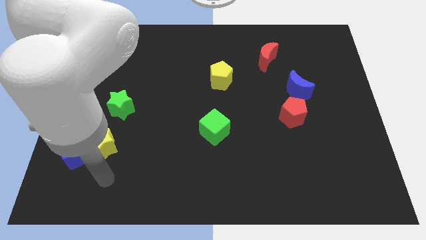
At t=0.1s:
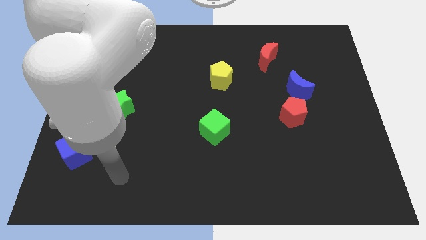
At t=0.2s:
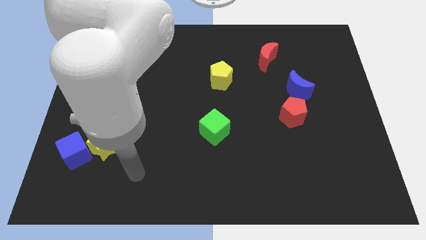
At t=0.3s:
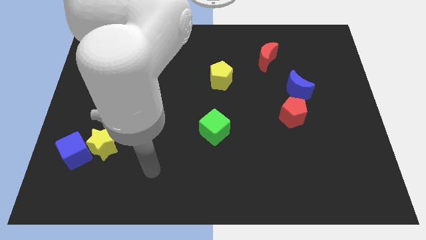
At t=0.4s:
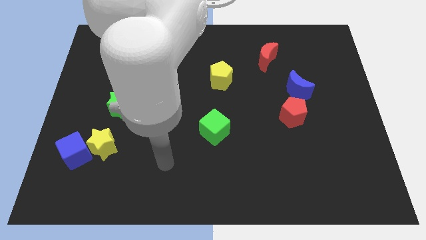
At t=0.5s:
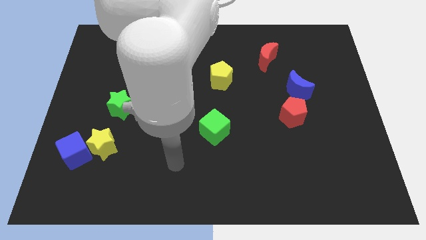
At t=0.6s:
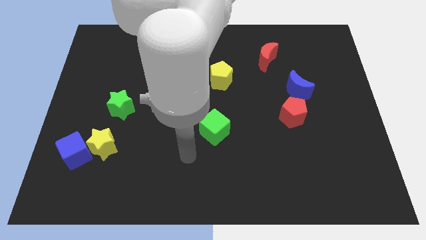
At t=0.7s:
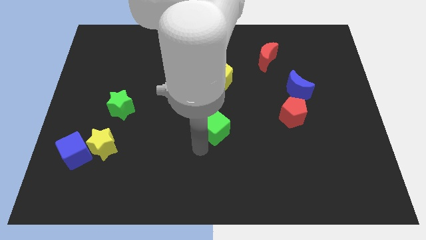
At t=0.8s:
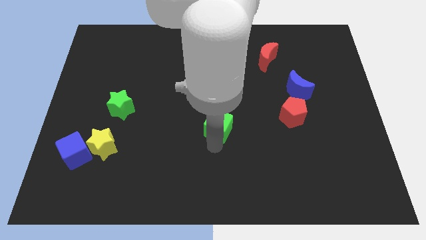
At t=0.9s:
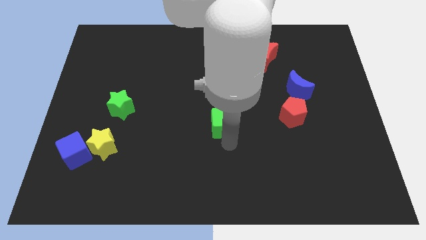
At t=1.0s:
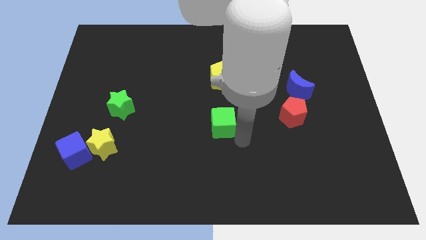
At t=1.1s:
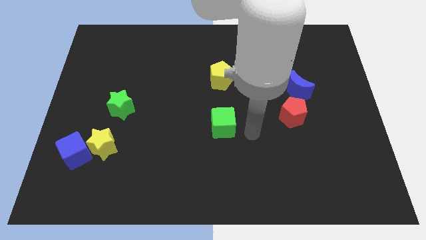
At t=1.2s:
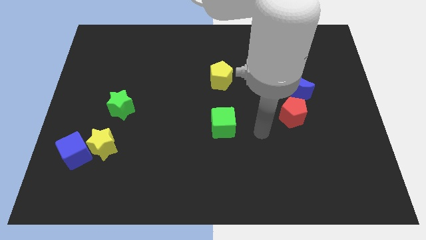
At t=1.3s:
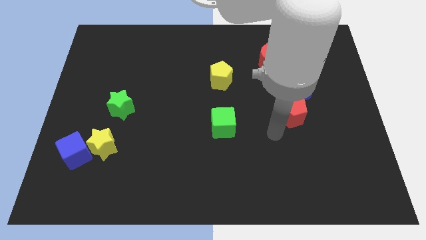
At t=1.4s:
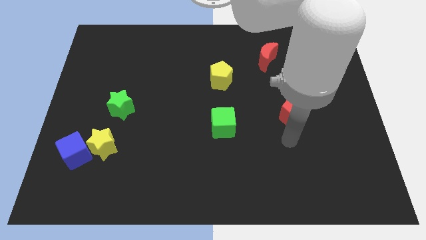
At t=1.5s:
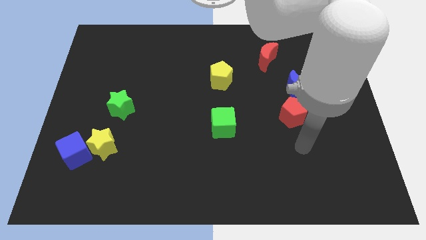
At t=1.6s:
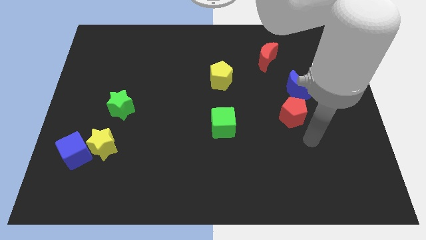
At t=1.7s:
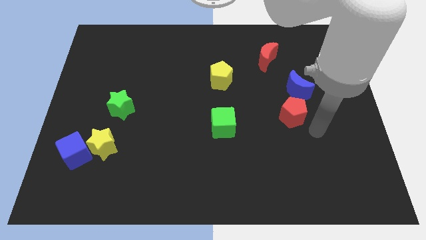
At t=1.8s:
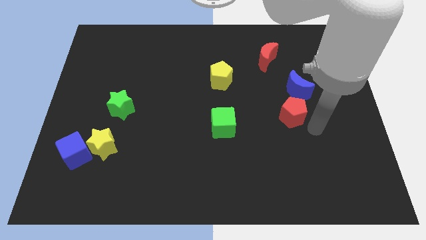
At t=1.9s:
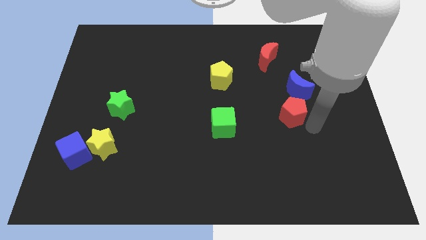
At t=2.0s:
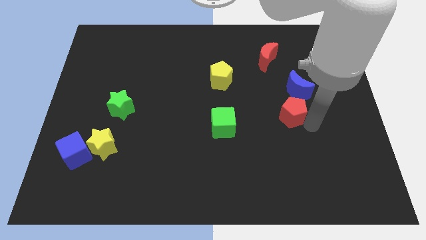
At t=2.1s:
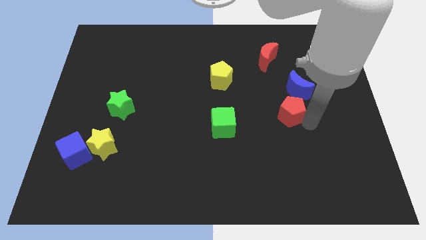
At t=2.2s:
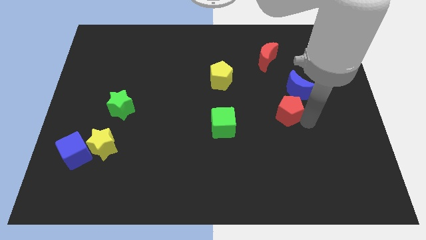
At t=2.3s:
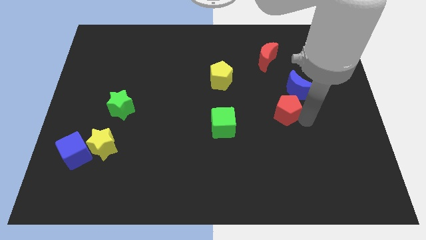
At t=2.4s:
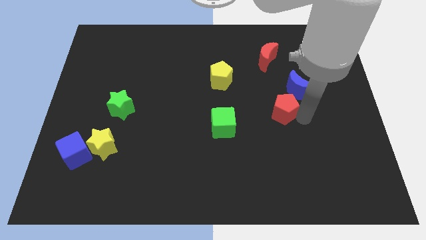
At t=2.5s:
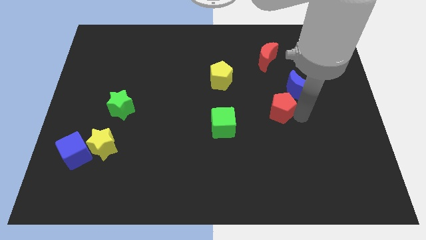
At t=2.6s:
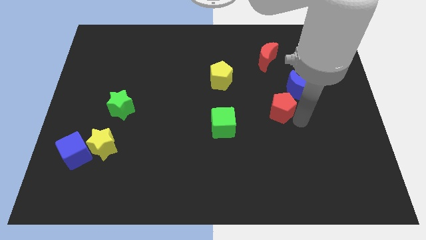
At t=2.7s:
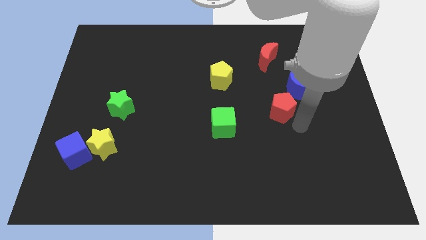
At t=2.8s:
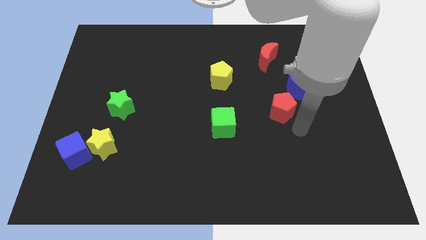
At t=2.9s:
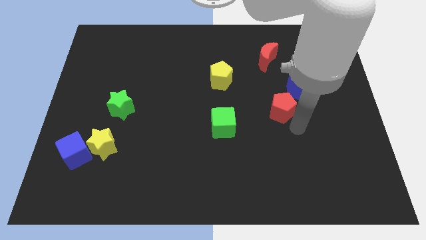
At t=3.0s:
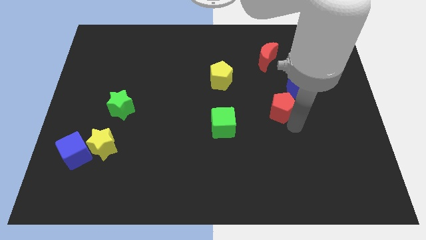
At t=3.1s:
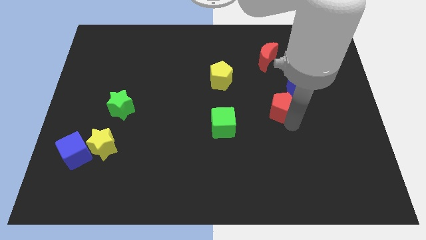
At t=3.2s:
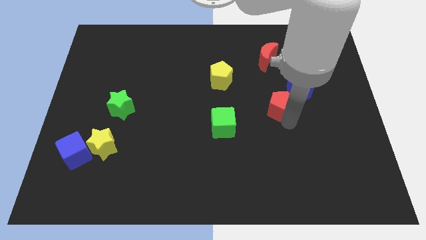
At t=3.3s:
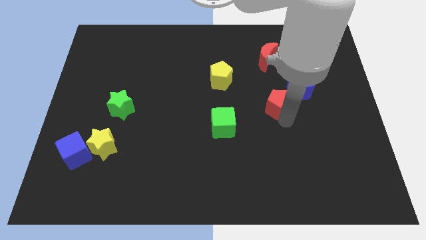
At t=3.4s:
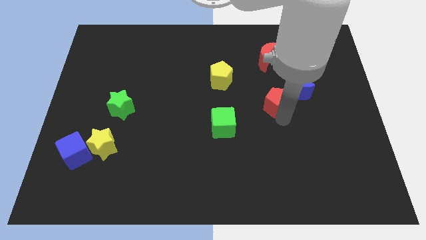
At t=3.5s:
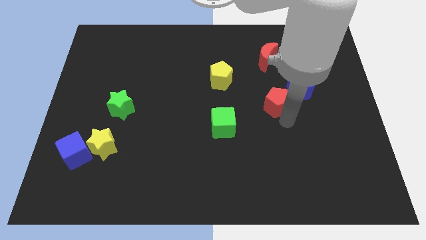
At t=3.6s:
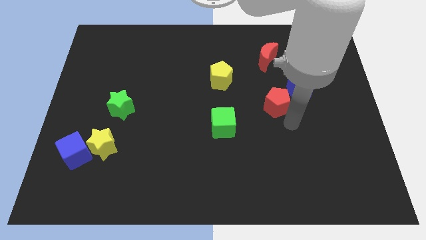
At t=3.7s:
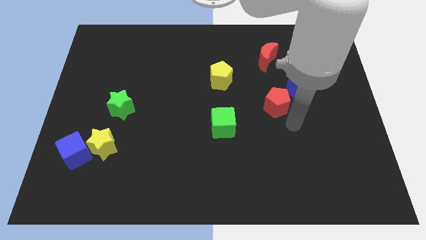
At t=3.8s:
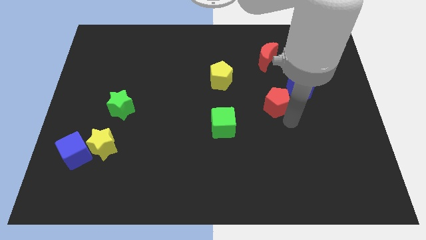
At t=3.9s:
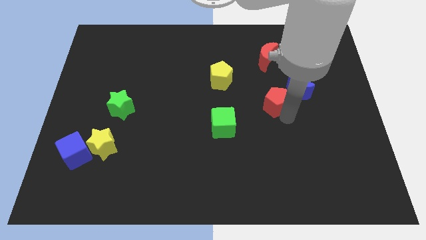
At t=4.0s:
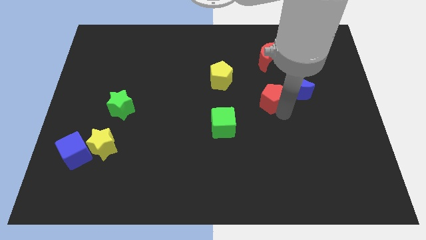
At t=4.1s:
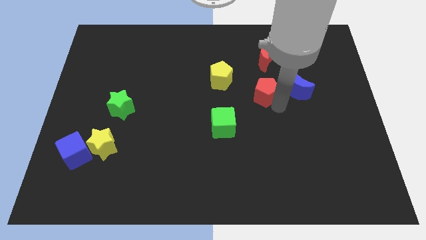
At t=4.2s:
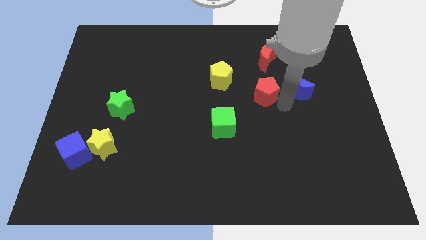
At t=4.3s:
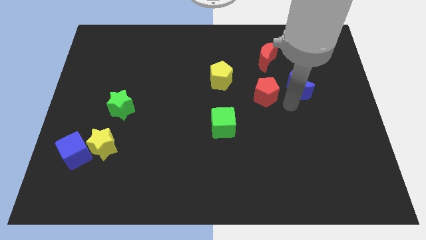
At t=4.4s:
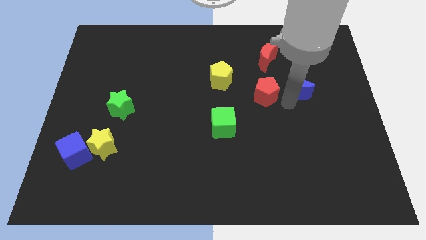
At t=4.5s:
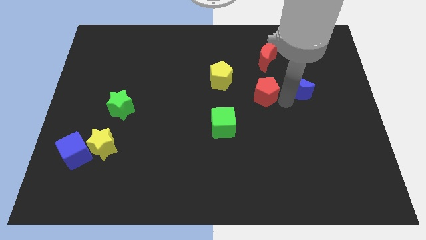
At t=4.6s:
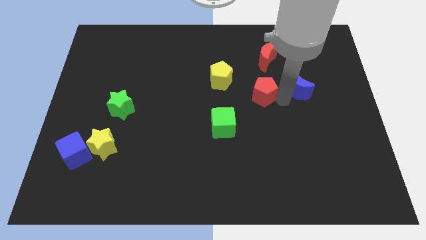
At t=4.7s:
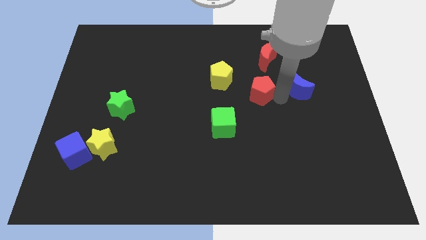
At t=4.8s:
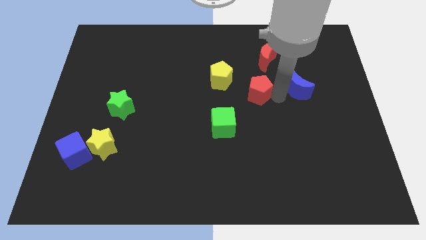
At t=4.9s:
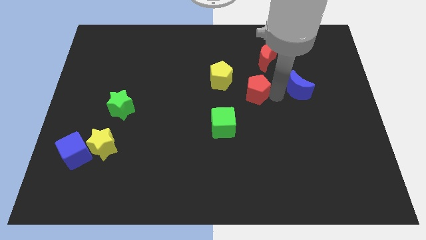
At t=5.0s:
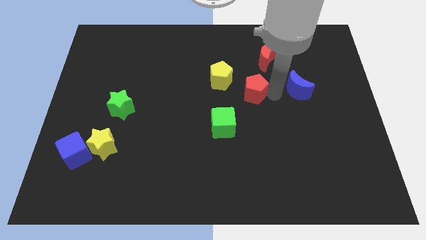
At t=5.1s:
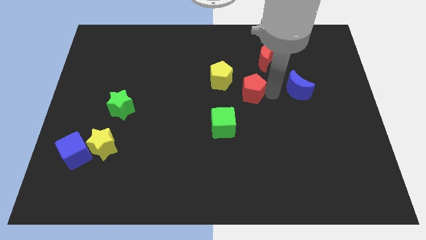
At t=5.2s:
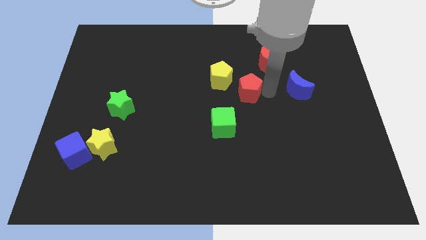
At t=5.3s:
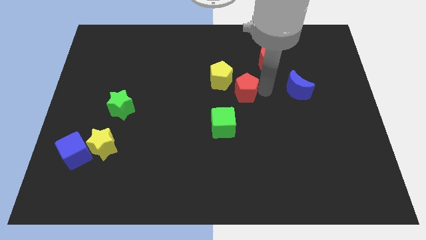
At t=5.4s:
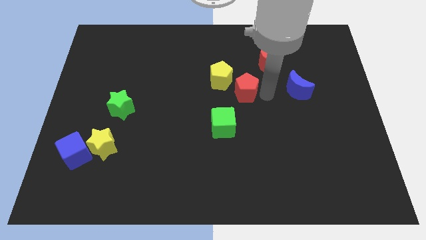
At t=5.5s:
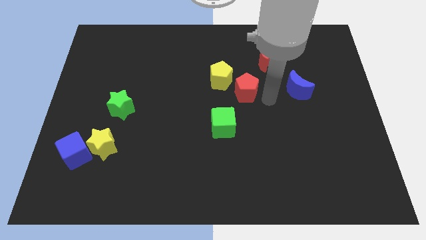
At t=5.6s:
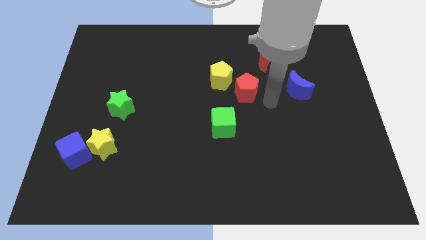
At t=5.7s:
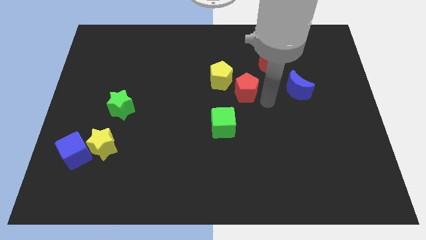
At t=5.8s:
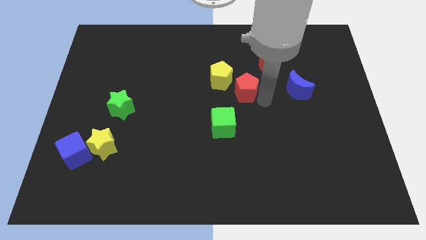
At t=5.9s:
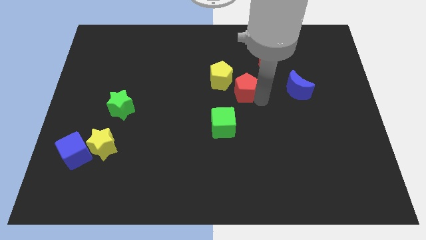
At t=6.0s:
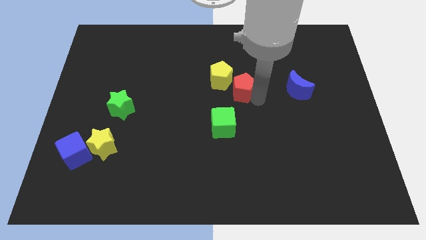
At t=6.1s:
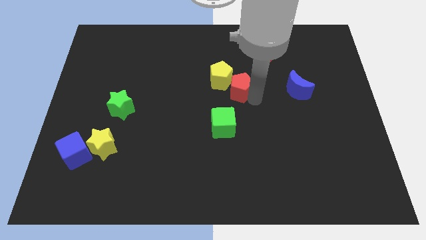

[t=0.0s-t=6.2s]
slide the red pentagon to the yellow pentagon
